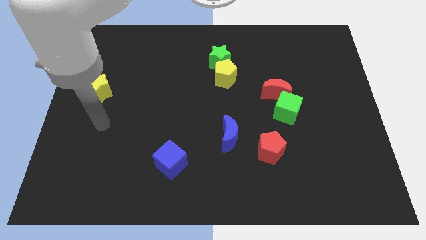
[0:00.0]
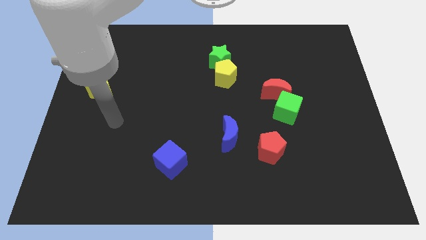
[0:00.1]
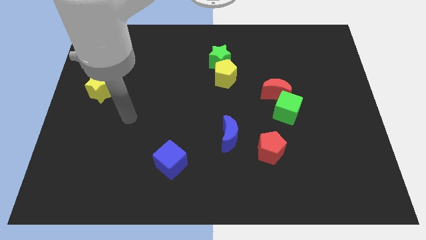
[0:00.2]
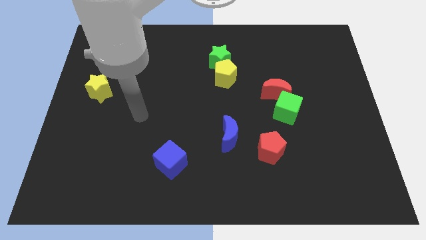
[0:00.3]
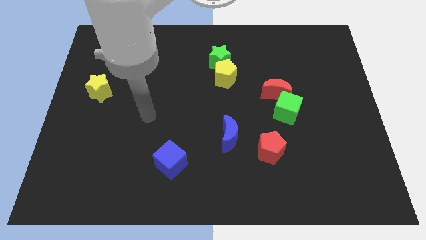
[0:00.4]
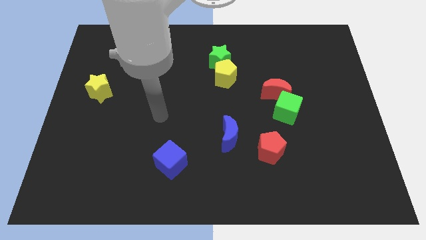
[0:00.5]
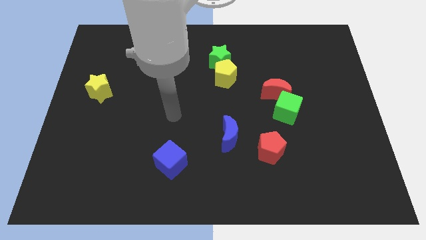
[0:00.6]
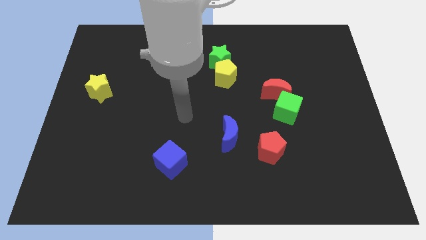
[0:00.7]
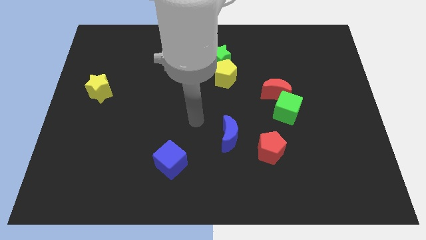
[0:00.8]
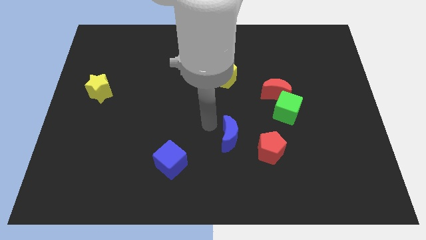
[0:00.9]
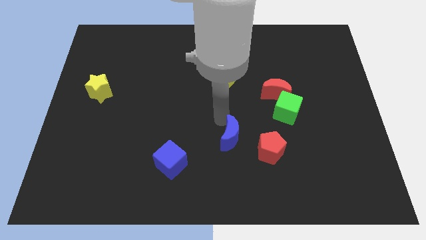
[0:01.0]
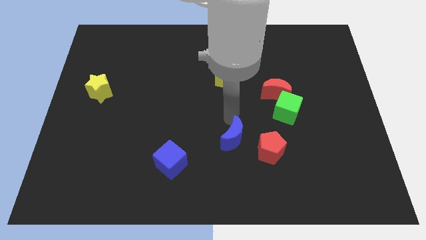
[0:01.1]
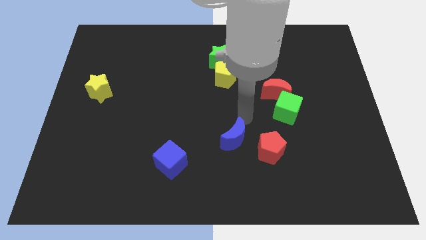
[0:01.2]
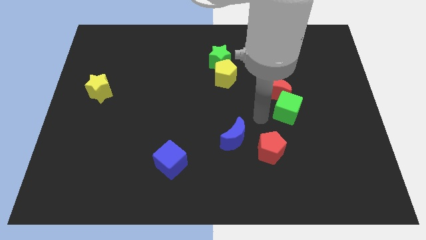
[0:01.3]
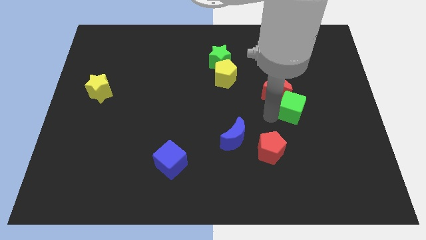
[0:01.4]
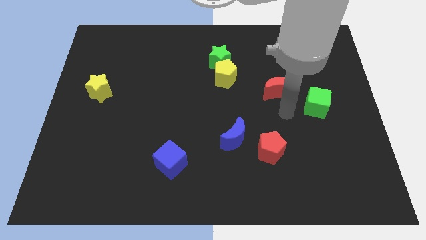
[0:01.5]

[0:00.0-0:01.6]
pull the red moon apart from the green cube

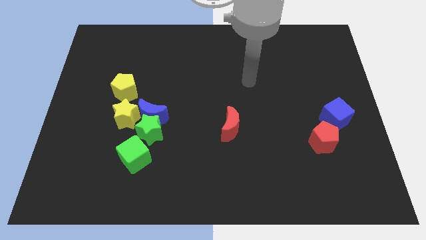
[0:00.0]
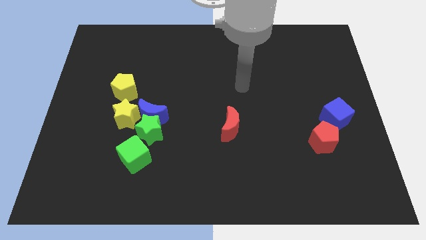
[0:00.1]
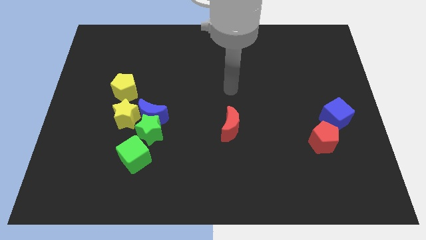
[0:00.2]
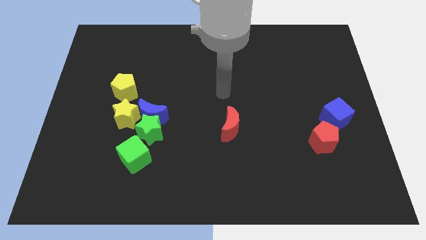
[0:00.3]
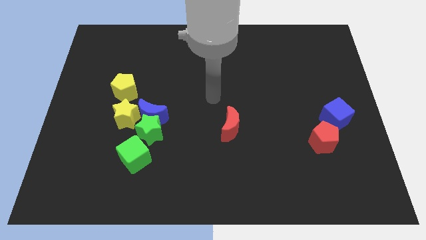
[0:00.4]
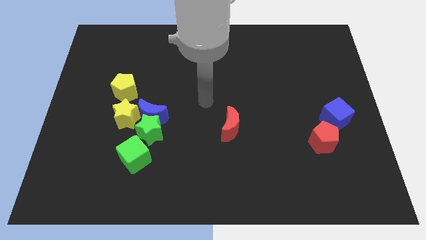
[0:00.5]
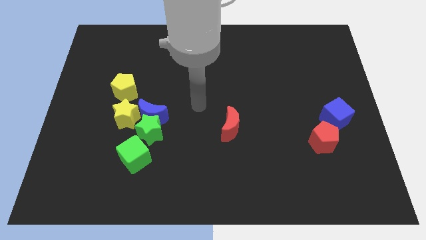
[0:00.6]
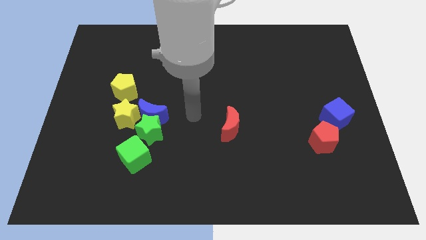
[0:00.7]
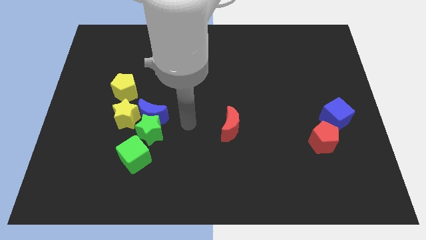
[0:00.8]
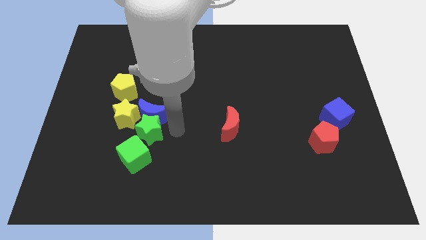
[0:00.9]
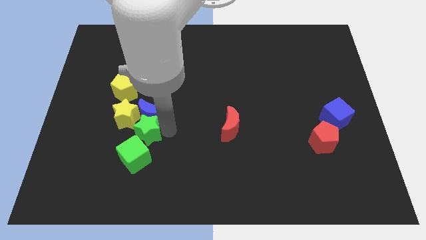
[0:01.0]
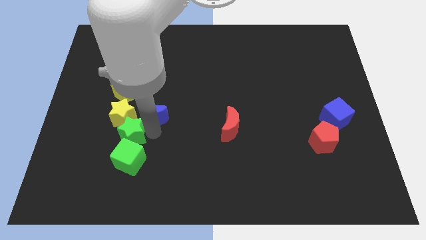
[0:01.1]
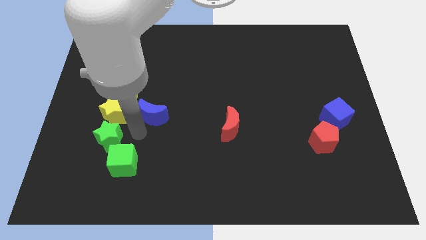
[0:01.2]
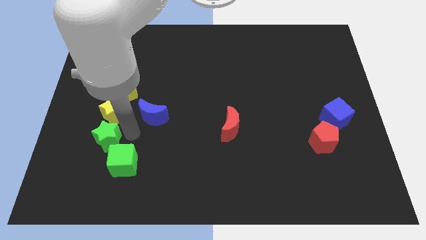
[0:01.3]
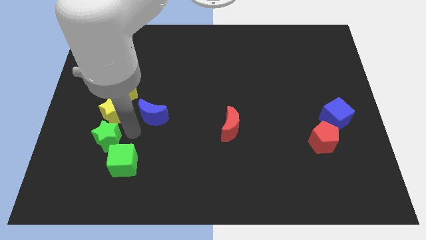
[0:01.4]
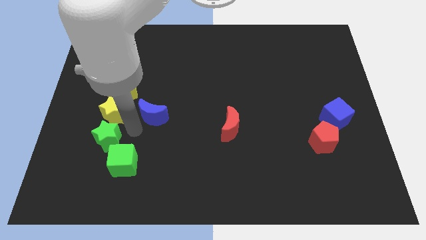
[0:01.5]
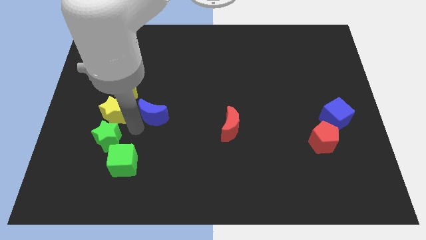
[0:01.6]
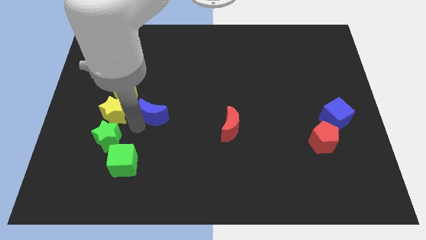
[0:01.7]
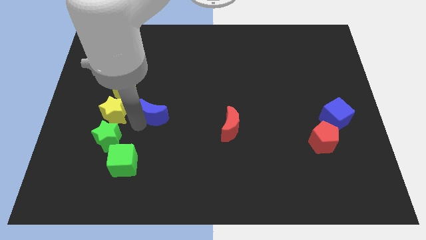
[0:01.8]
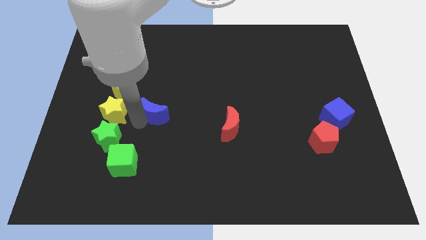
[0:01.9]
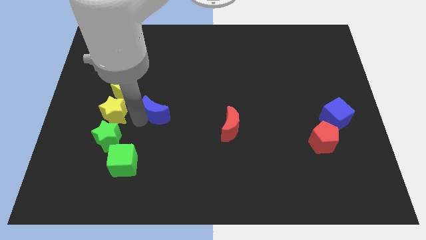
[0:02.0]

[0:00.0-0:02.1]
move the blue moon away from the green star and yellow star

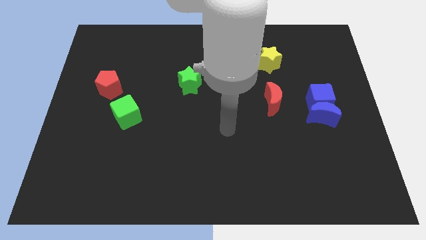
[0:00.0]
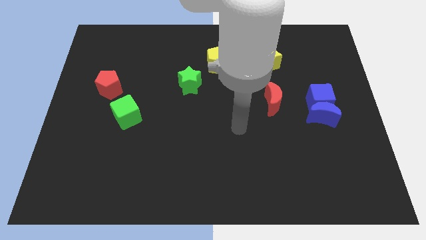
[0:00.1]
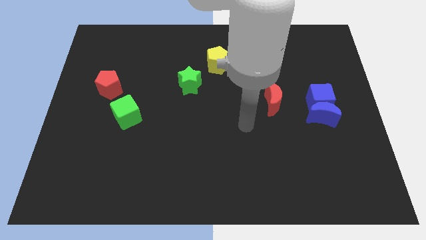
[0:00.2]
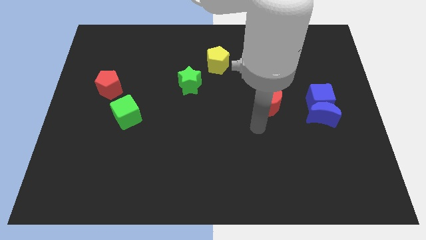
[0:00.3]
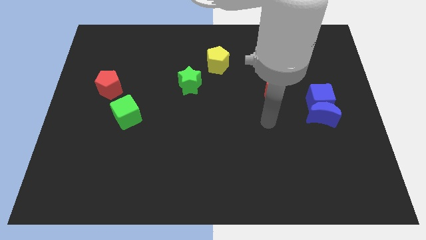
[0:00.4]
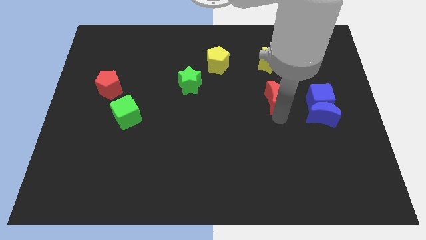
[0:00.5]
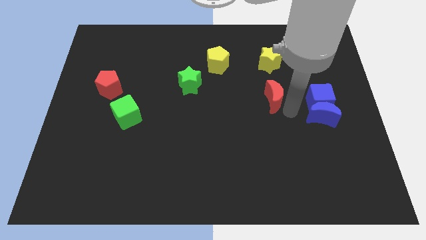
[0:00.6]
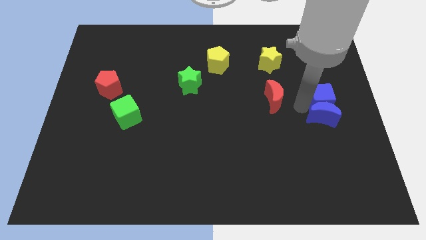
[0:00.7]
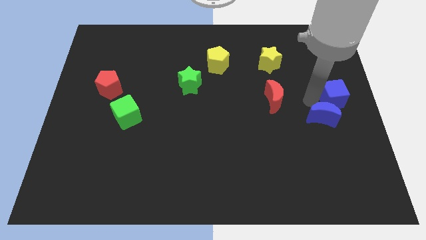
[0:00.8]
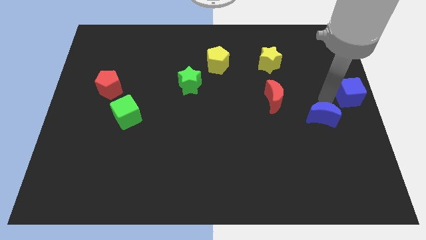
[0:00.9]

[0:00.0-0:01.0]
separate the blue moon from the blue cube

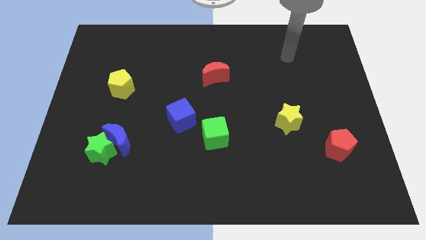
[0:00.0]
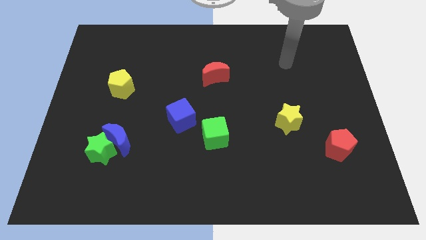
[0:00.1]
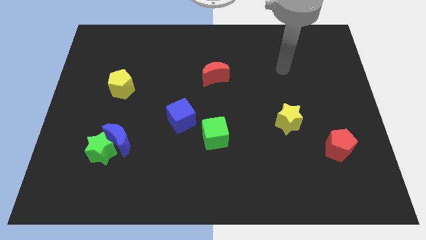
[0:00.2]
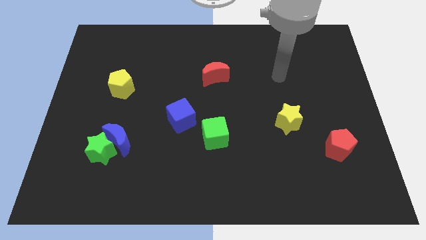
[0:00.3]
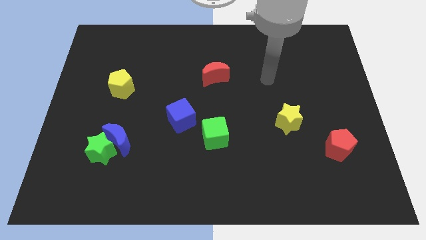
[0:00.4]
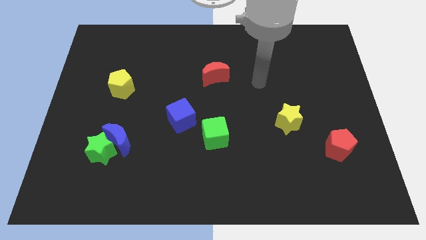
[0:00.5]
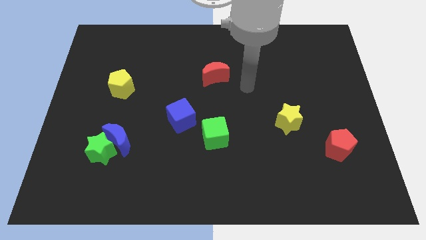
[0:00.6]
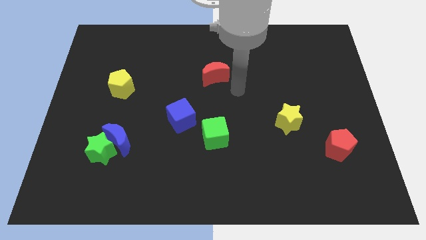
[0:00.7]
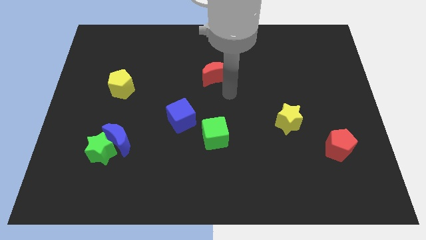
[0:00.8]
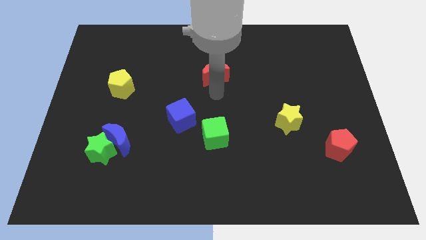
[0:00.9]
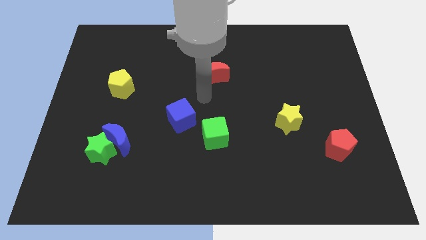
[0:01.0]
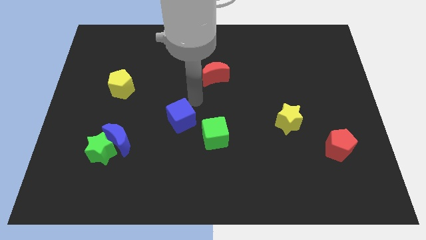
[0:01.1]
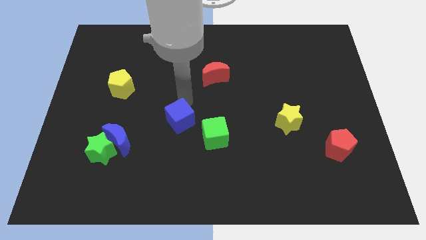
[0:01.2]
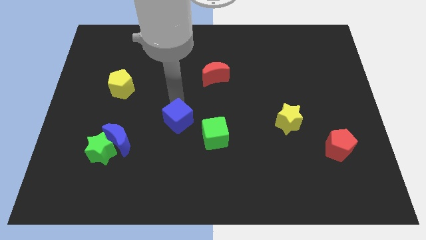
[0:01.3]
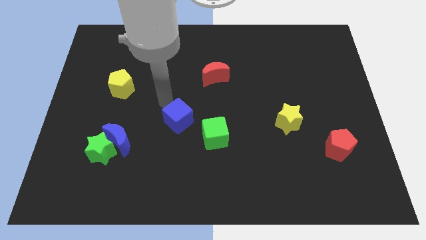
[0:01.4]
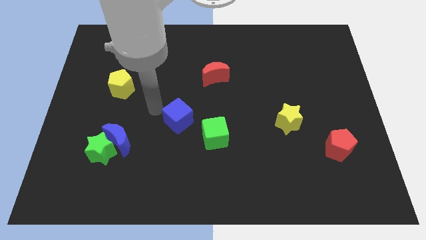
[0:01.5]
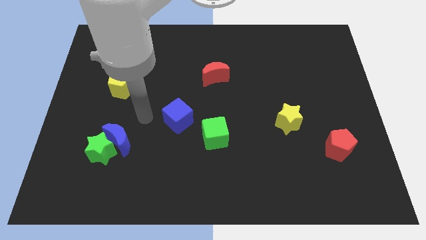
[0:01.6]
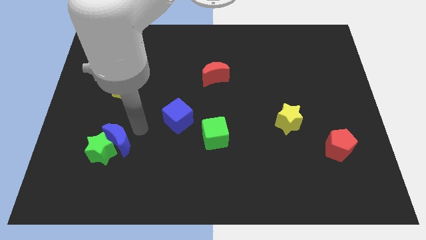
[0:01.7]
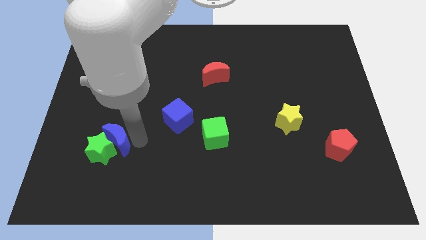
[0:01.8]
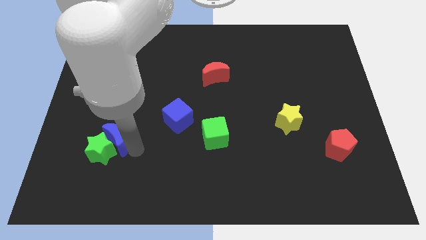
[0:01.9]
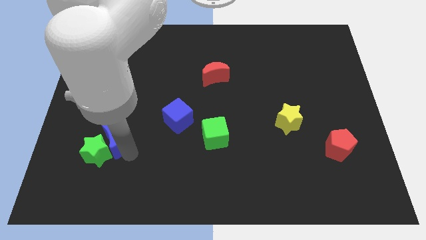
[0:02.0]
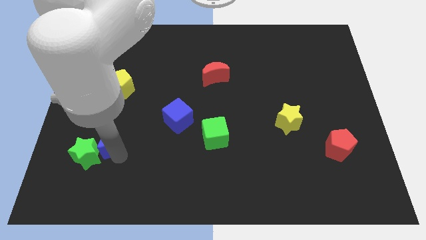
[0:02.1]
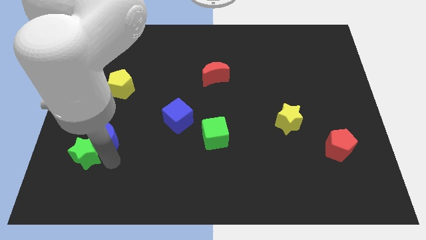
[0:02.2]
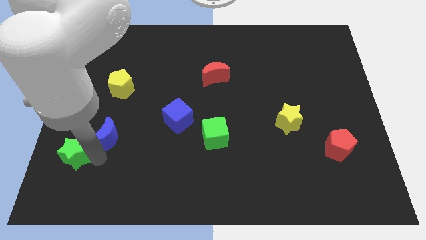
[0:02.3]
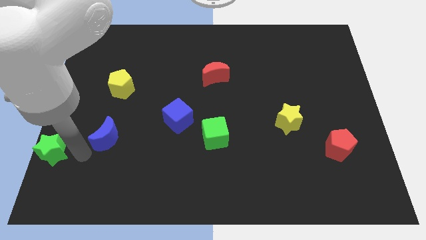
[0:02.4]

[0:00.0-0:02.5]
separate the blue moon from the green star
